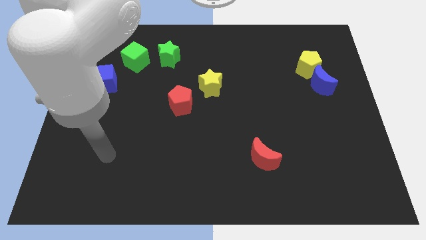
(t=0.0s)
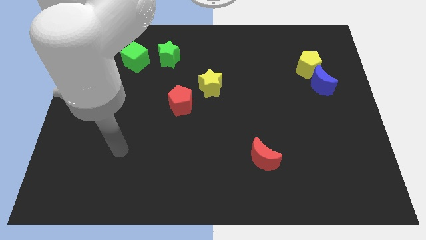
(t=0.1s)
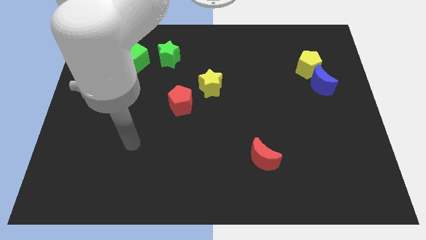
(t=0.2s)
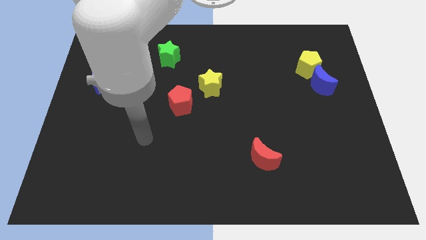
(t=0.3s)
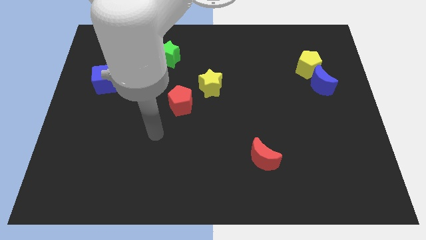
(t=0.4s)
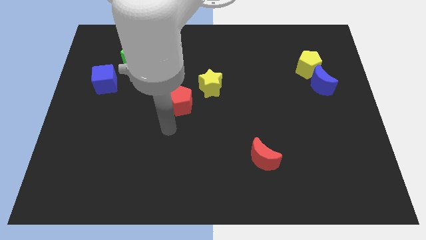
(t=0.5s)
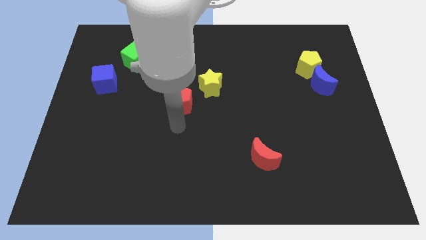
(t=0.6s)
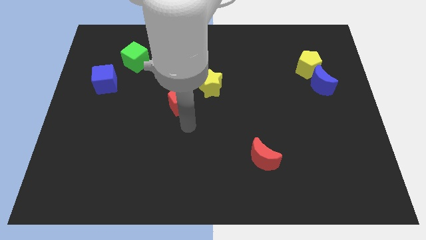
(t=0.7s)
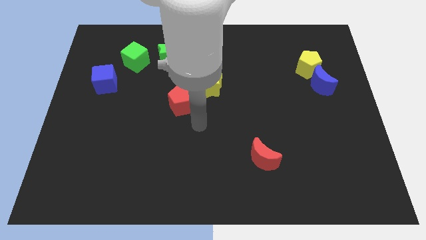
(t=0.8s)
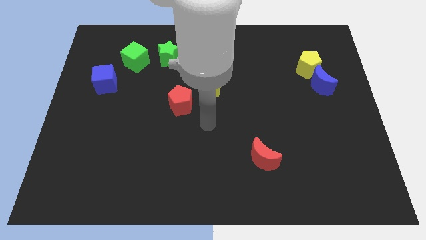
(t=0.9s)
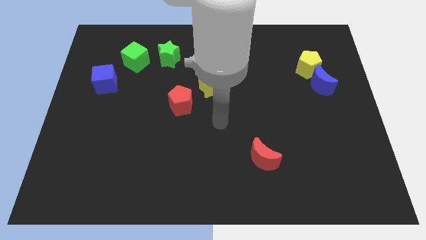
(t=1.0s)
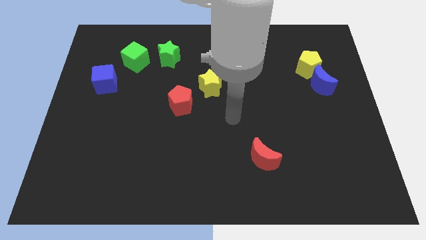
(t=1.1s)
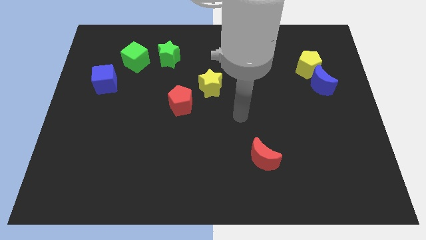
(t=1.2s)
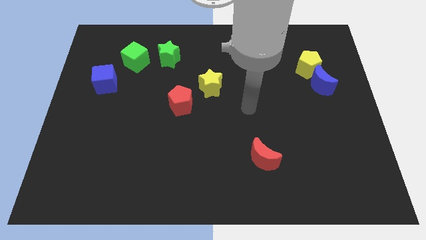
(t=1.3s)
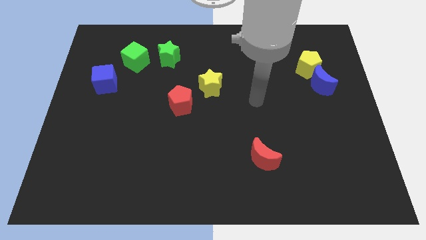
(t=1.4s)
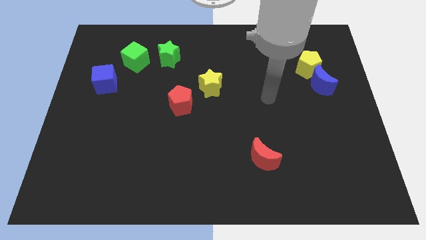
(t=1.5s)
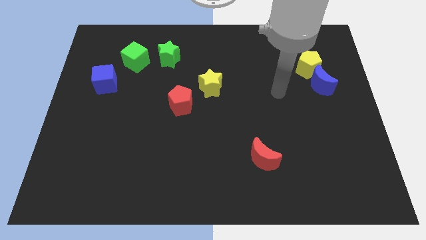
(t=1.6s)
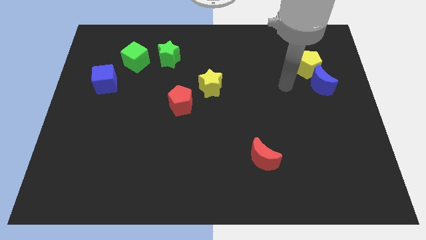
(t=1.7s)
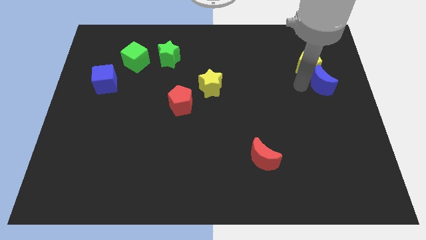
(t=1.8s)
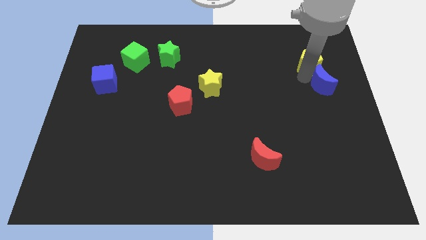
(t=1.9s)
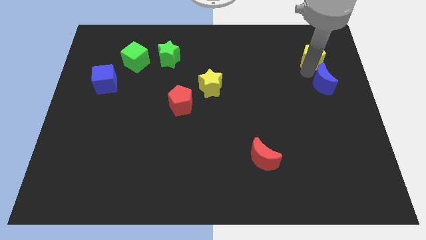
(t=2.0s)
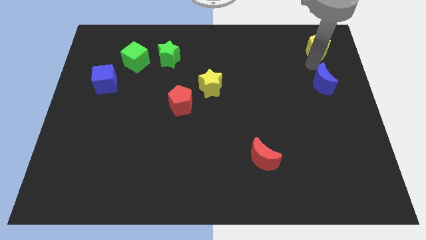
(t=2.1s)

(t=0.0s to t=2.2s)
pull the blue moon apart from the yellow pentagon

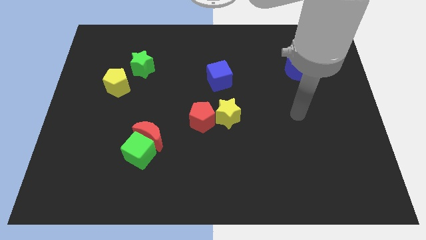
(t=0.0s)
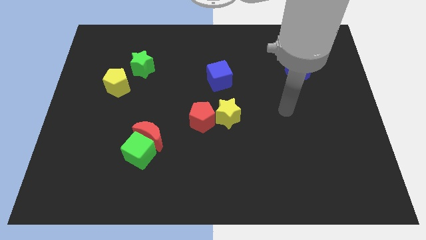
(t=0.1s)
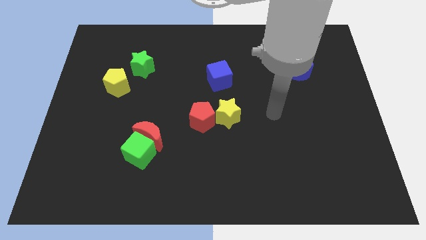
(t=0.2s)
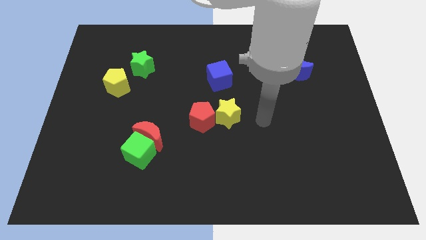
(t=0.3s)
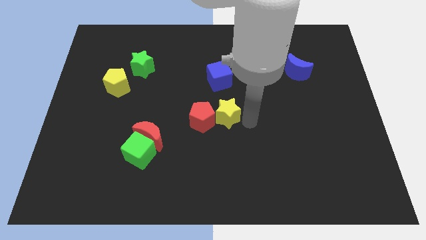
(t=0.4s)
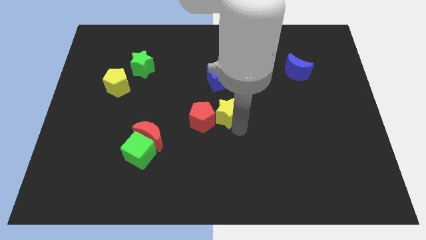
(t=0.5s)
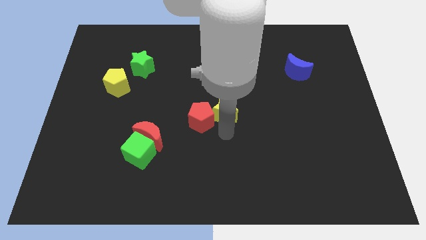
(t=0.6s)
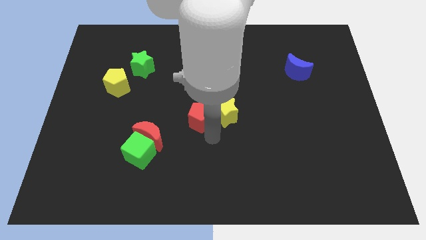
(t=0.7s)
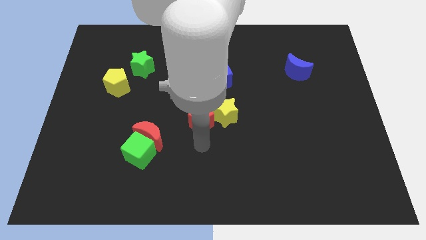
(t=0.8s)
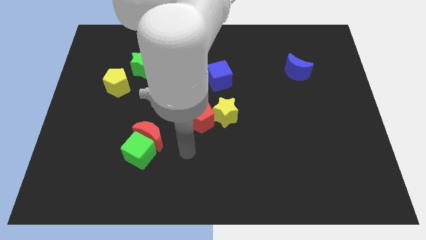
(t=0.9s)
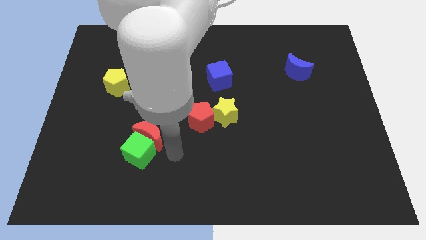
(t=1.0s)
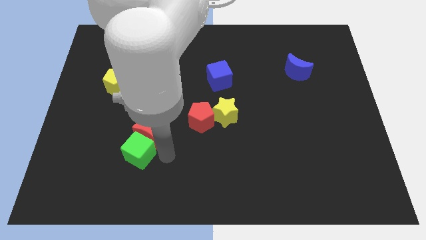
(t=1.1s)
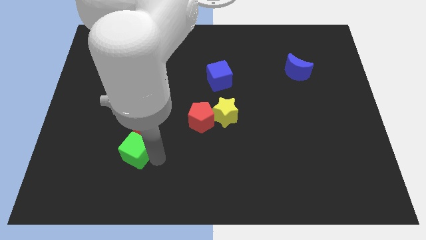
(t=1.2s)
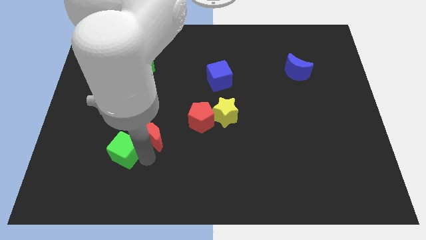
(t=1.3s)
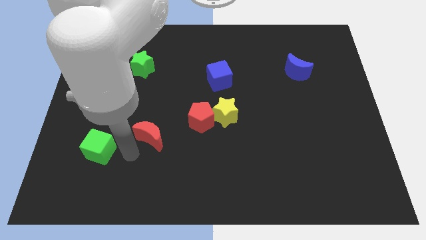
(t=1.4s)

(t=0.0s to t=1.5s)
pull the red moon apart from the green cube

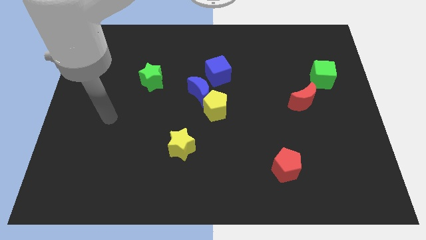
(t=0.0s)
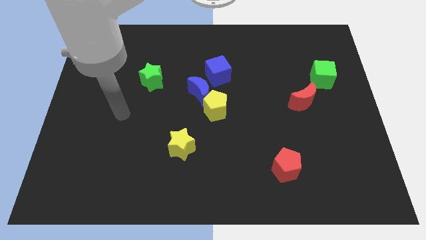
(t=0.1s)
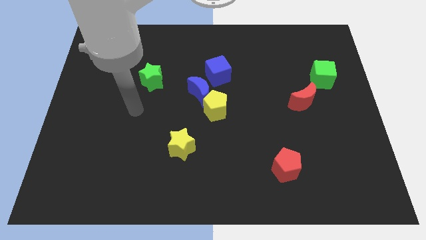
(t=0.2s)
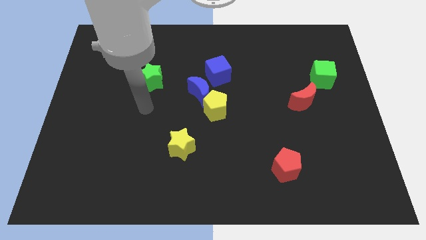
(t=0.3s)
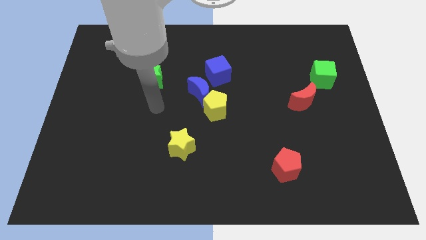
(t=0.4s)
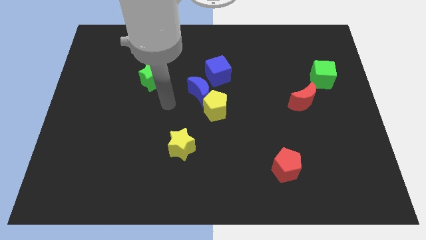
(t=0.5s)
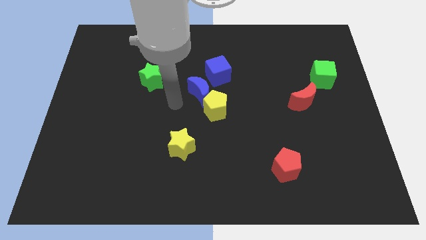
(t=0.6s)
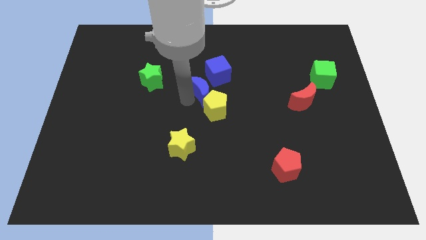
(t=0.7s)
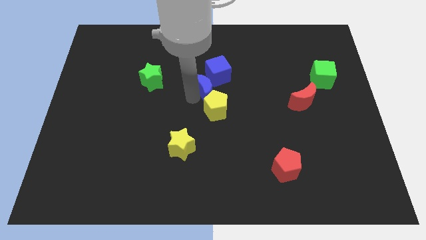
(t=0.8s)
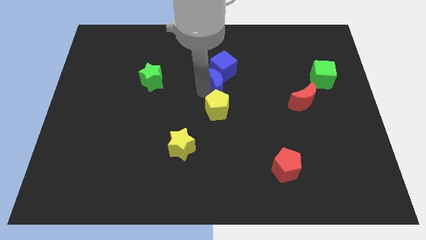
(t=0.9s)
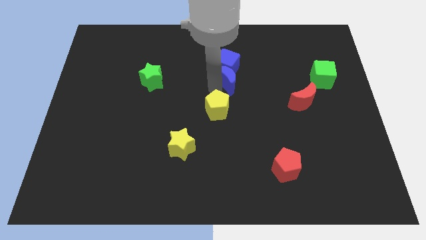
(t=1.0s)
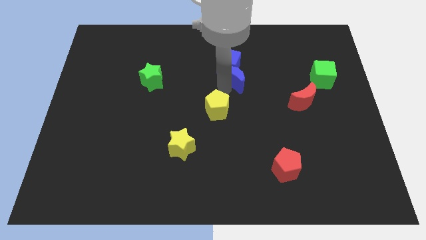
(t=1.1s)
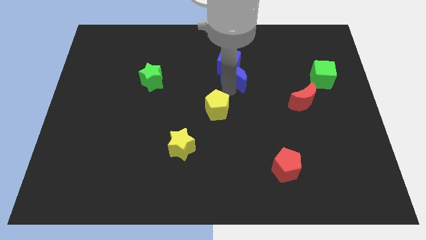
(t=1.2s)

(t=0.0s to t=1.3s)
pull the yellow pentagon apart from the blue moon

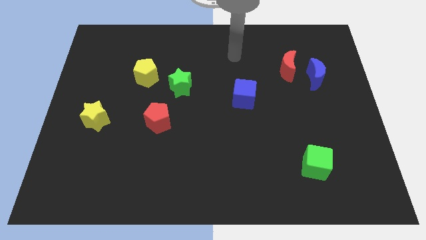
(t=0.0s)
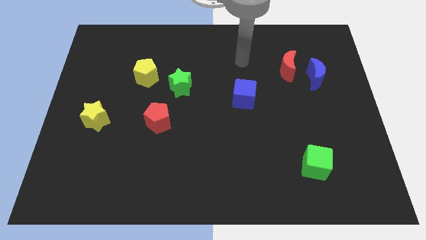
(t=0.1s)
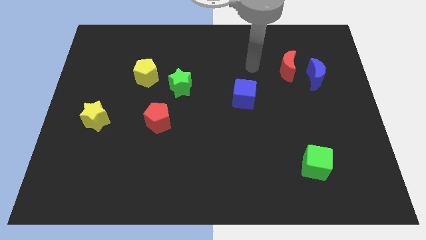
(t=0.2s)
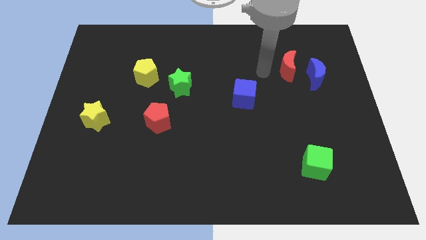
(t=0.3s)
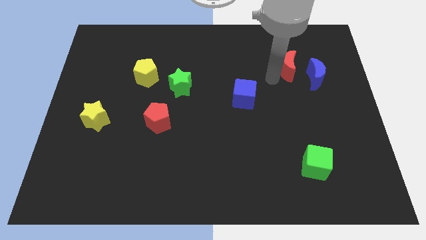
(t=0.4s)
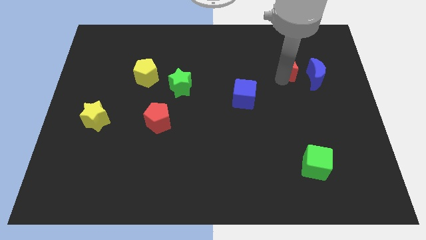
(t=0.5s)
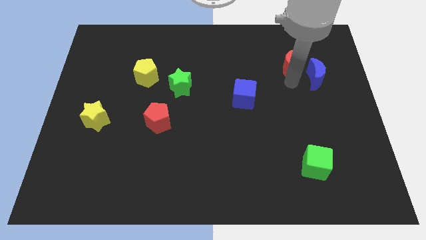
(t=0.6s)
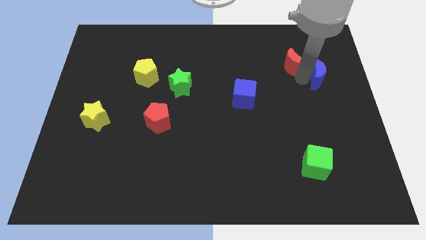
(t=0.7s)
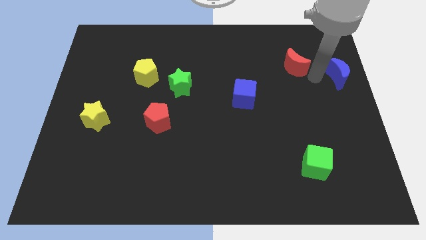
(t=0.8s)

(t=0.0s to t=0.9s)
separate the red moon from the blue moon

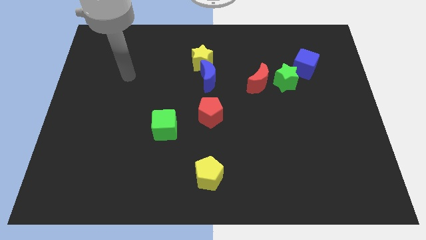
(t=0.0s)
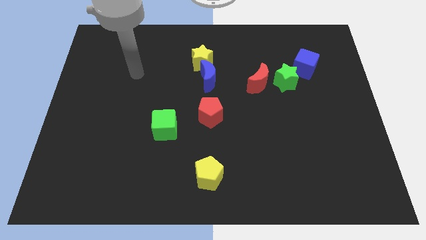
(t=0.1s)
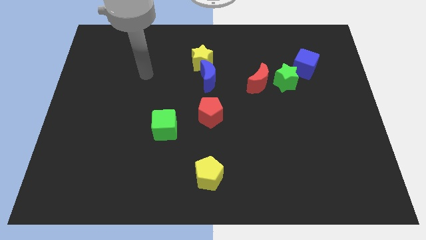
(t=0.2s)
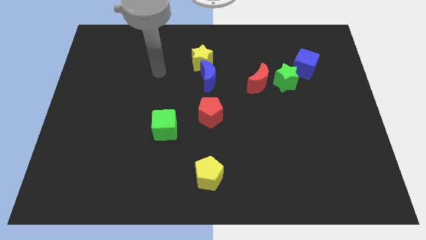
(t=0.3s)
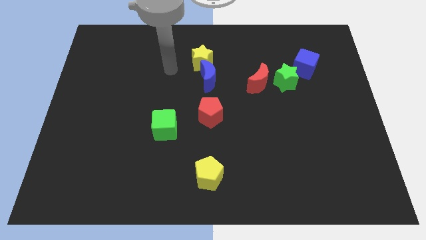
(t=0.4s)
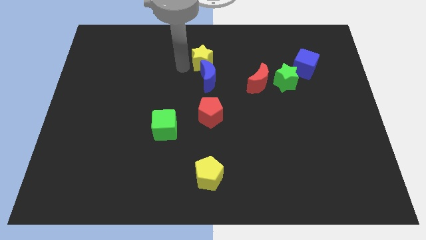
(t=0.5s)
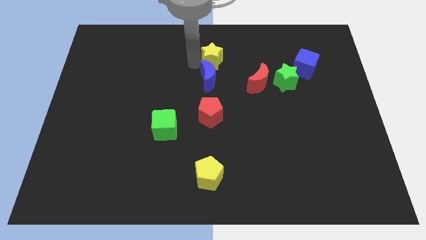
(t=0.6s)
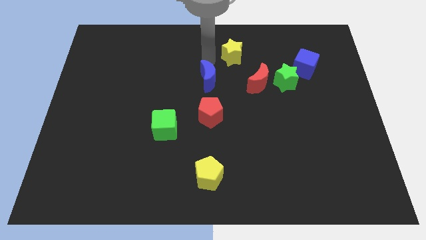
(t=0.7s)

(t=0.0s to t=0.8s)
separate the blue moon from the yellow star

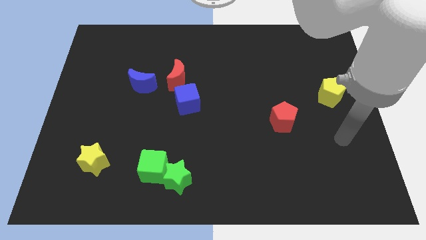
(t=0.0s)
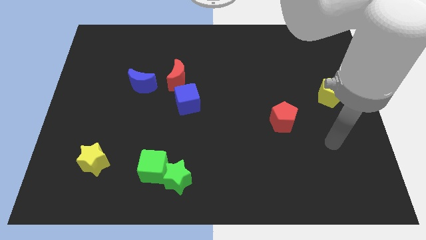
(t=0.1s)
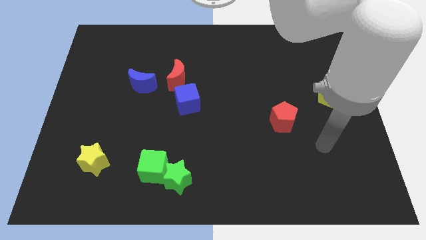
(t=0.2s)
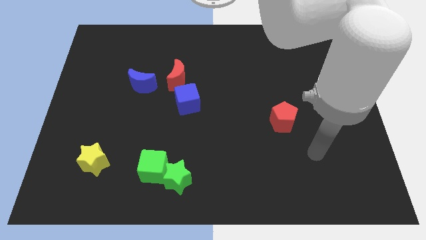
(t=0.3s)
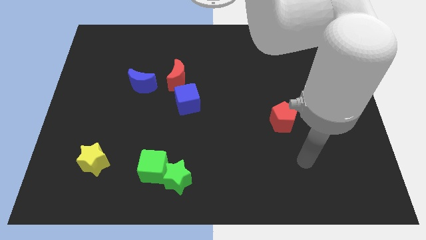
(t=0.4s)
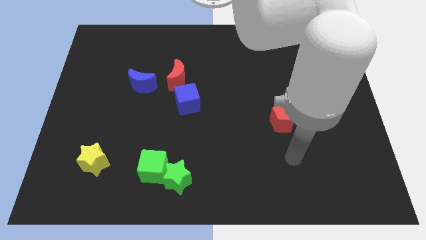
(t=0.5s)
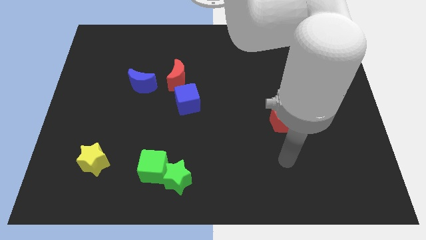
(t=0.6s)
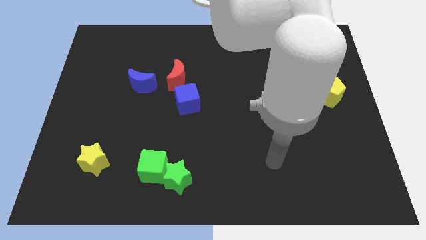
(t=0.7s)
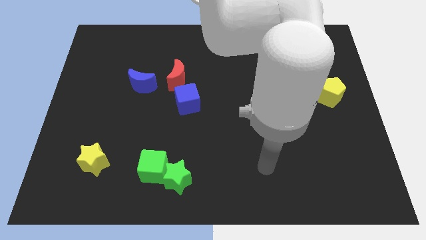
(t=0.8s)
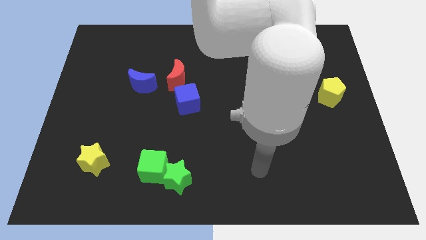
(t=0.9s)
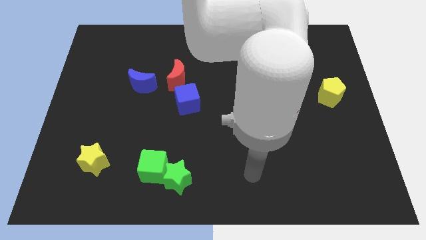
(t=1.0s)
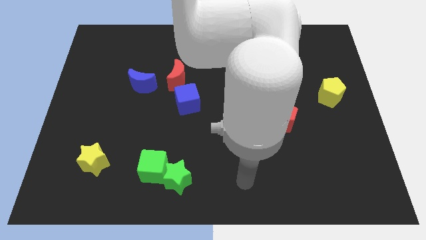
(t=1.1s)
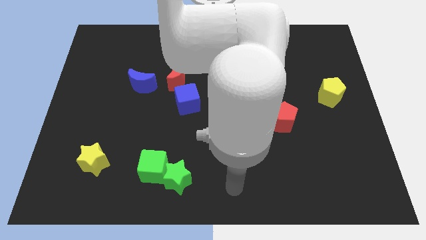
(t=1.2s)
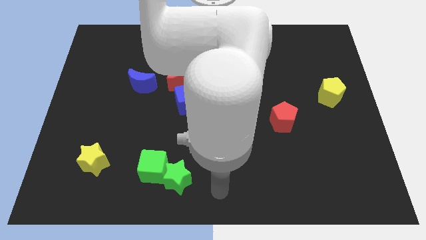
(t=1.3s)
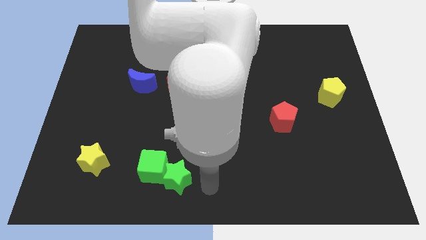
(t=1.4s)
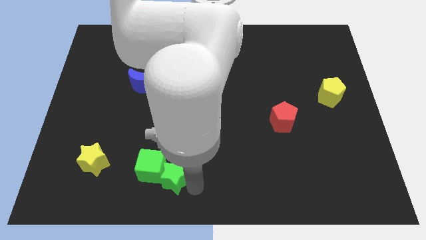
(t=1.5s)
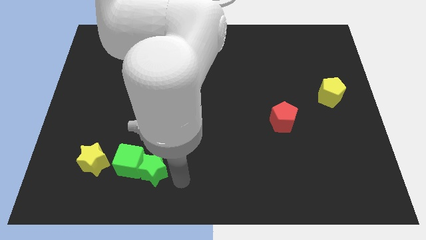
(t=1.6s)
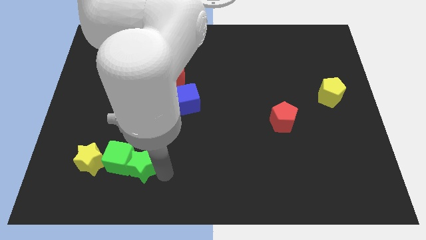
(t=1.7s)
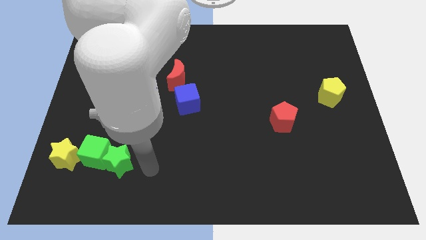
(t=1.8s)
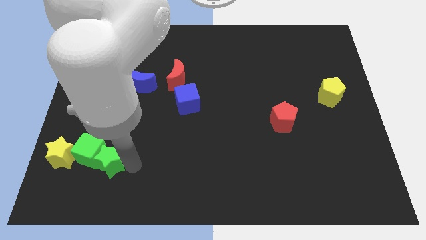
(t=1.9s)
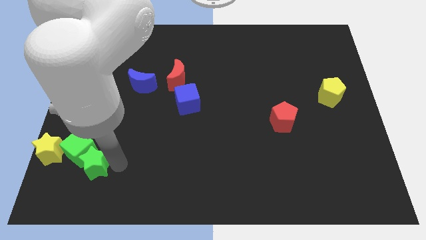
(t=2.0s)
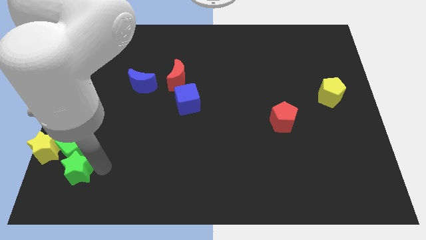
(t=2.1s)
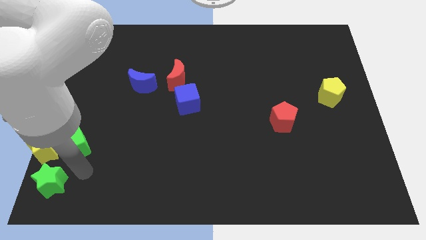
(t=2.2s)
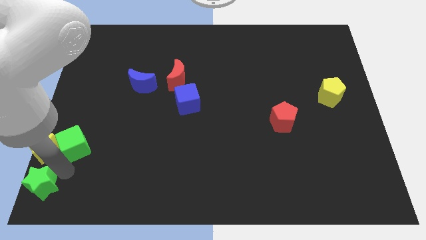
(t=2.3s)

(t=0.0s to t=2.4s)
separate the green cube from the green star

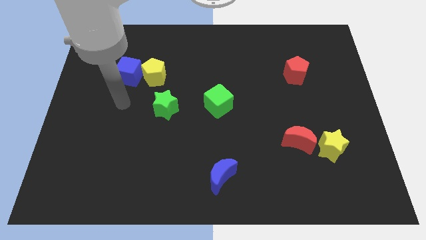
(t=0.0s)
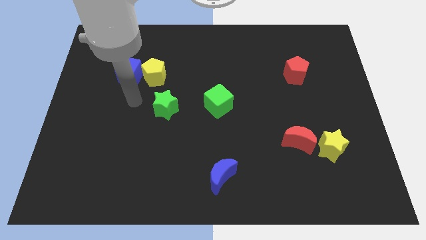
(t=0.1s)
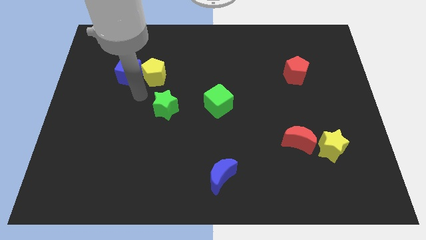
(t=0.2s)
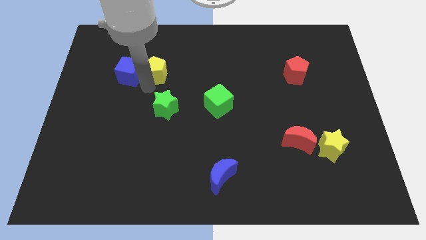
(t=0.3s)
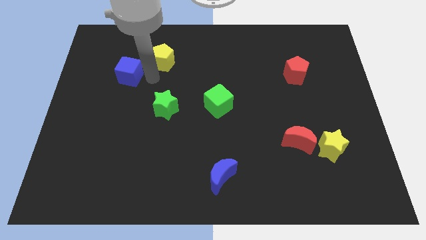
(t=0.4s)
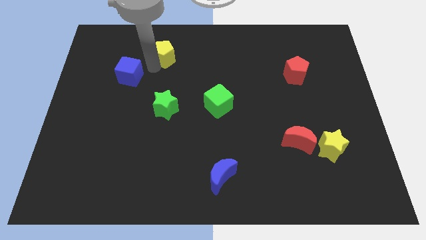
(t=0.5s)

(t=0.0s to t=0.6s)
pull the blue cube apart from the yellow pentagon
